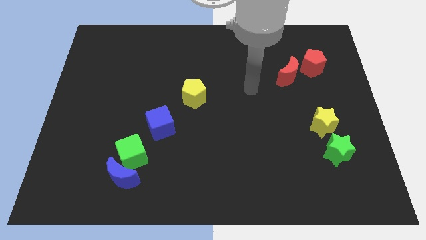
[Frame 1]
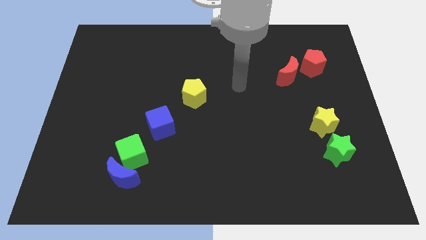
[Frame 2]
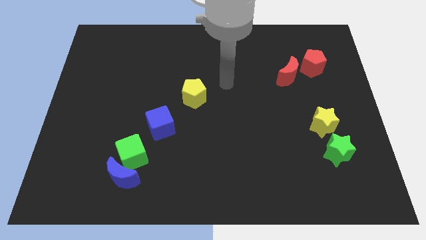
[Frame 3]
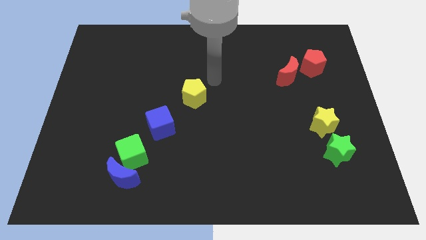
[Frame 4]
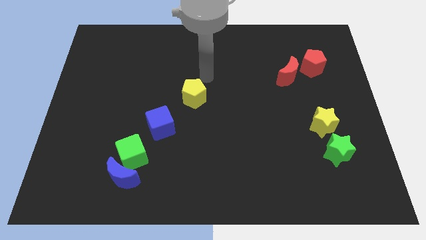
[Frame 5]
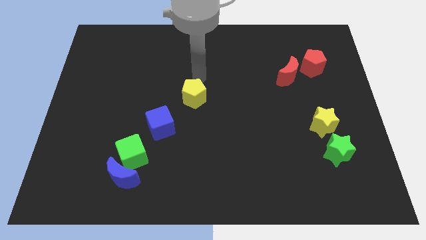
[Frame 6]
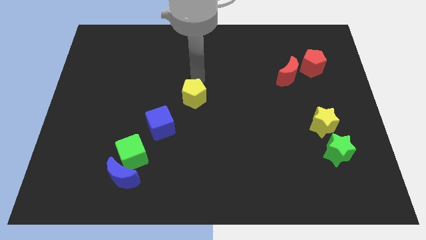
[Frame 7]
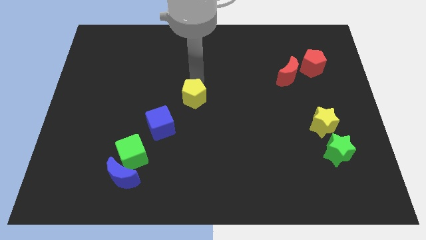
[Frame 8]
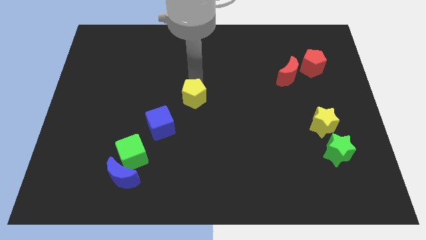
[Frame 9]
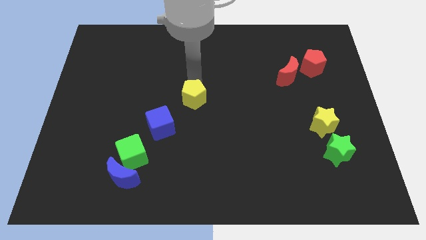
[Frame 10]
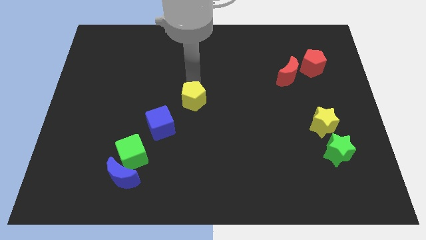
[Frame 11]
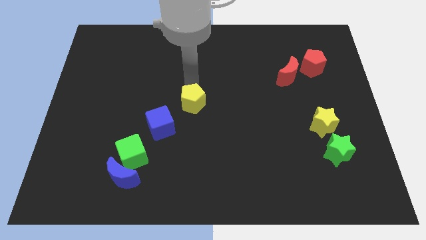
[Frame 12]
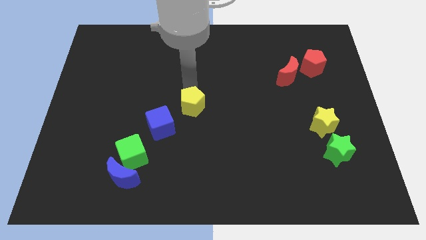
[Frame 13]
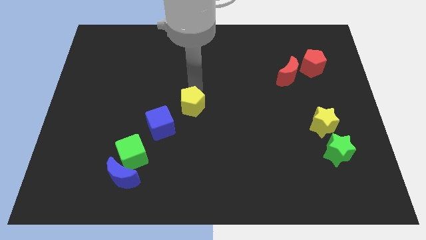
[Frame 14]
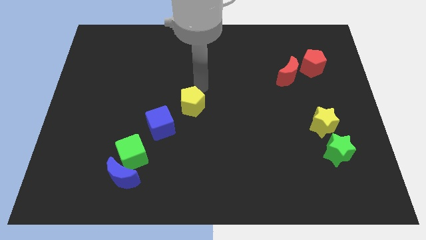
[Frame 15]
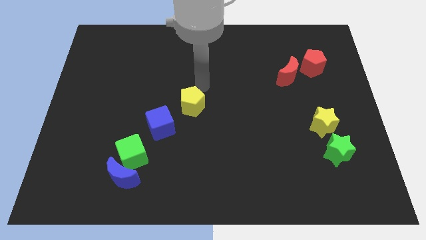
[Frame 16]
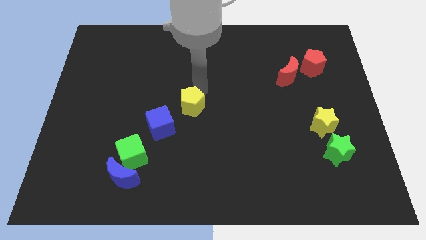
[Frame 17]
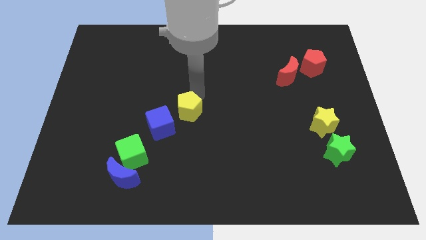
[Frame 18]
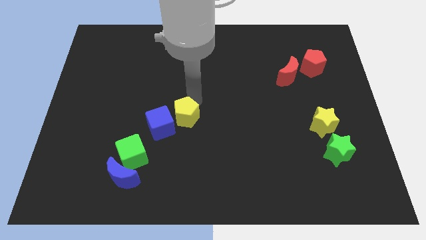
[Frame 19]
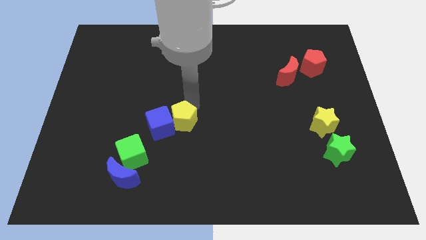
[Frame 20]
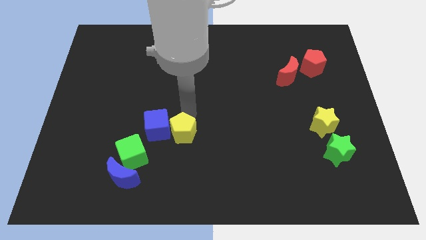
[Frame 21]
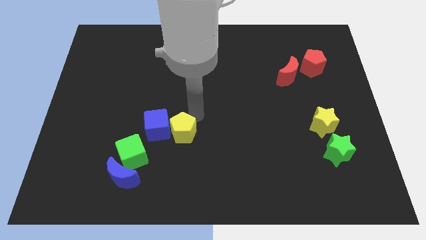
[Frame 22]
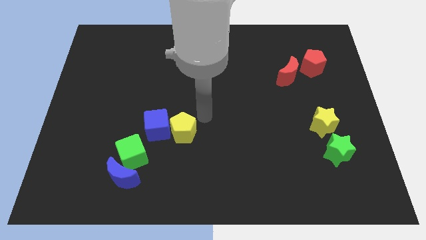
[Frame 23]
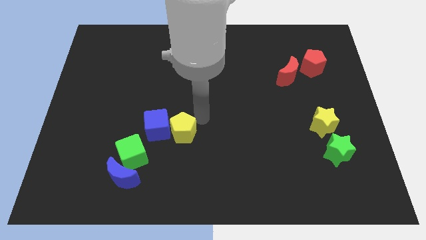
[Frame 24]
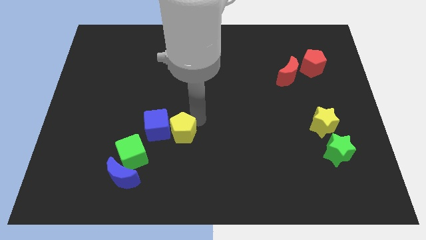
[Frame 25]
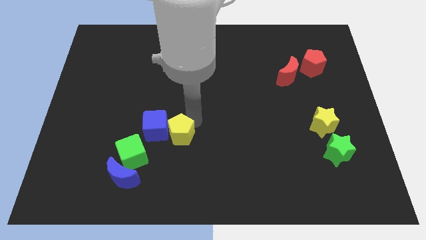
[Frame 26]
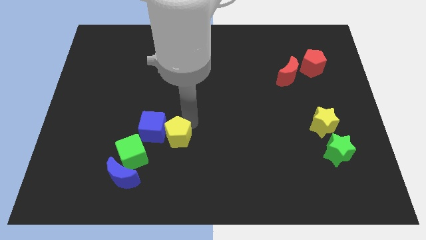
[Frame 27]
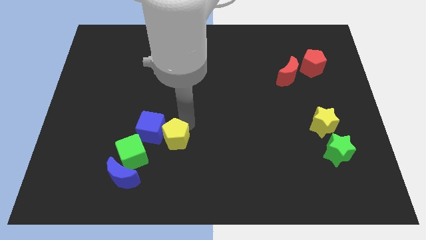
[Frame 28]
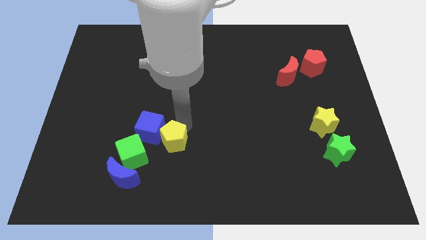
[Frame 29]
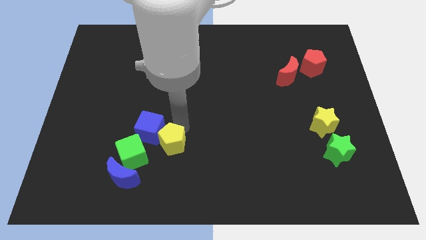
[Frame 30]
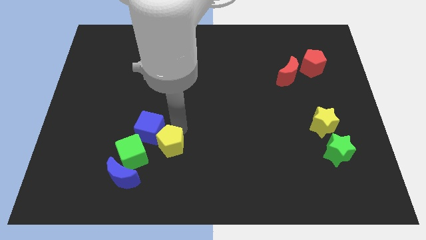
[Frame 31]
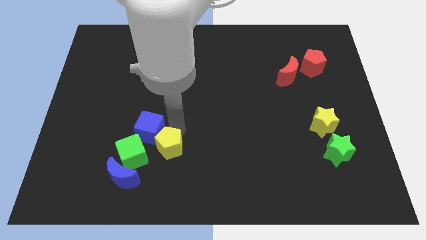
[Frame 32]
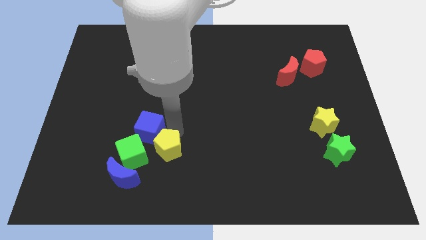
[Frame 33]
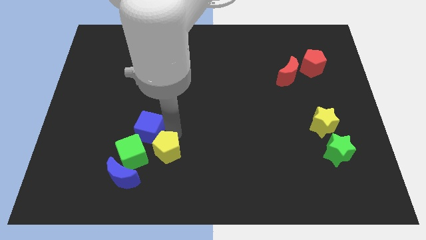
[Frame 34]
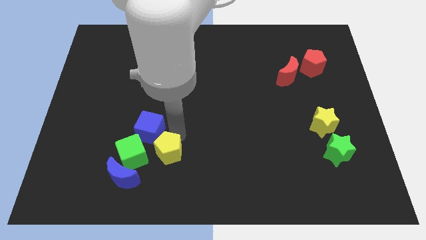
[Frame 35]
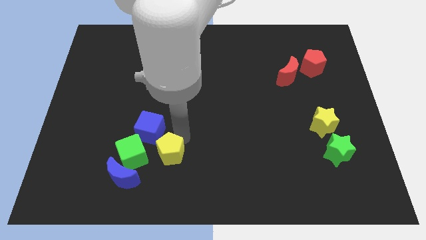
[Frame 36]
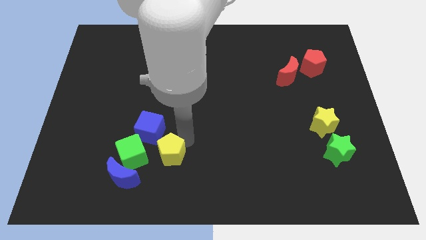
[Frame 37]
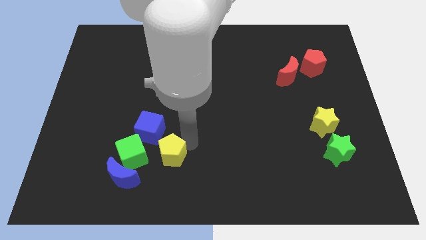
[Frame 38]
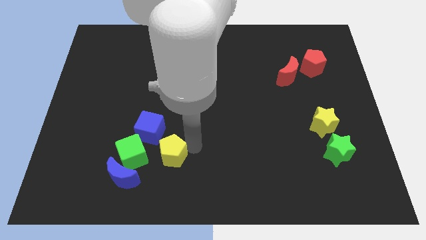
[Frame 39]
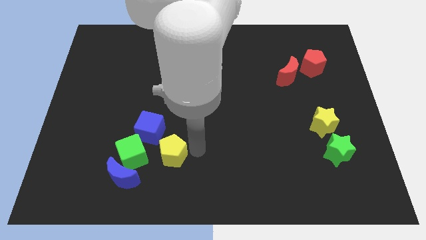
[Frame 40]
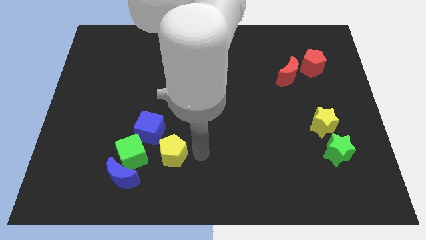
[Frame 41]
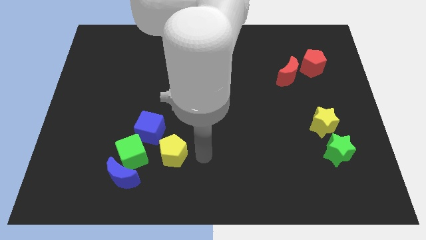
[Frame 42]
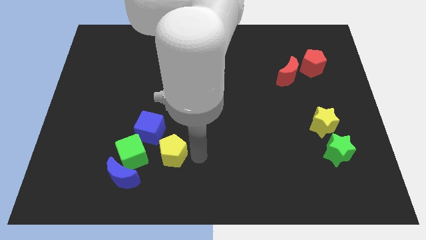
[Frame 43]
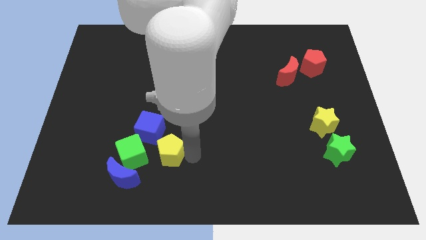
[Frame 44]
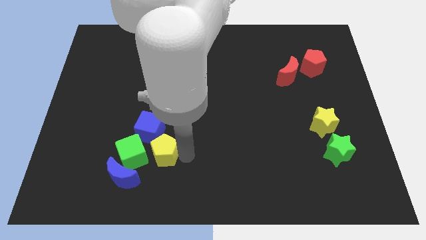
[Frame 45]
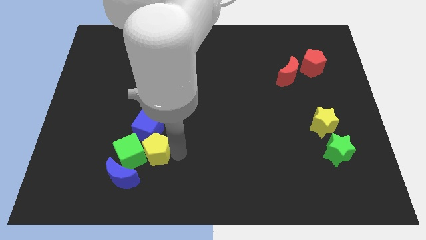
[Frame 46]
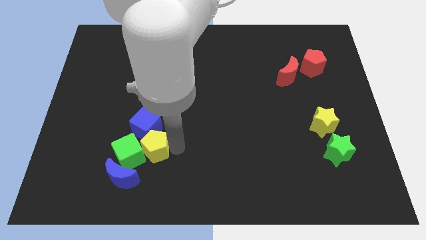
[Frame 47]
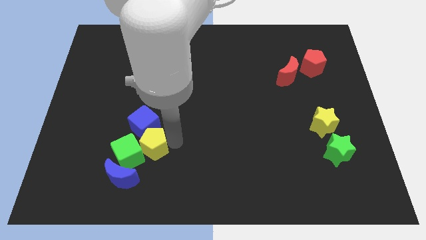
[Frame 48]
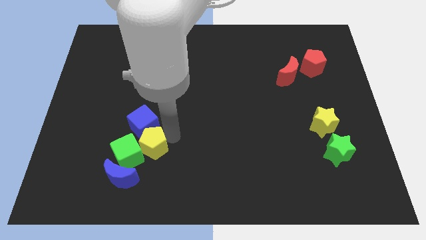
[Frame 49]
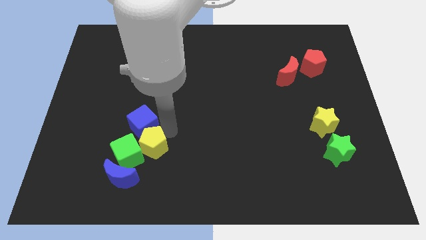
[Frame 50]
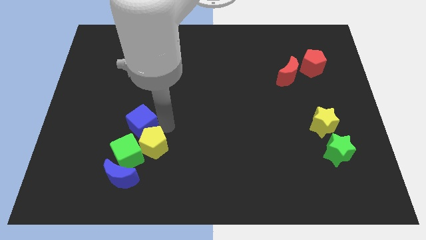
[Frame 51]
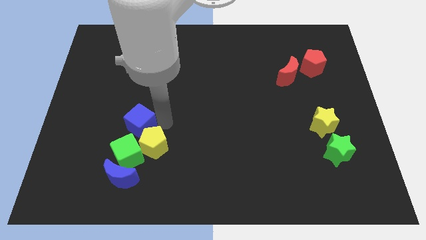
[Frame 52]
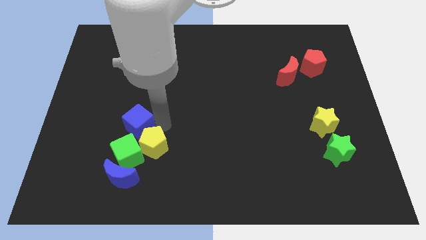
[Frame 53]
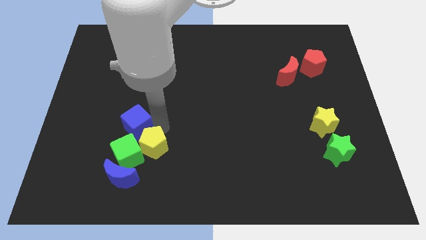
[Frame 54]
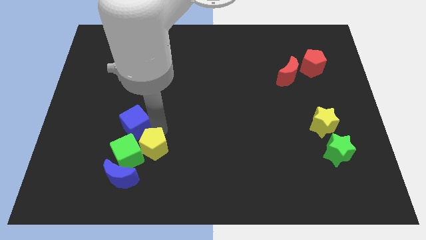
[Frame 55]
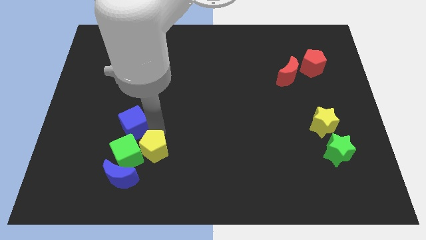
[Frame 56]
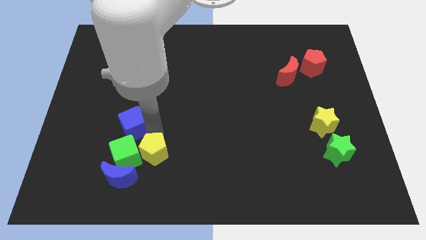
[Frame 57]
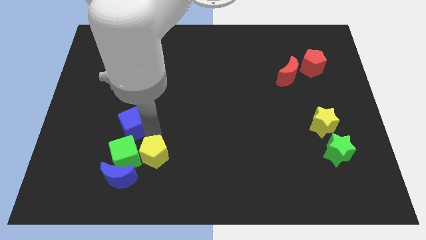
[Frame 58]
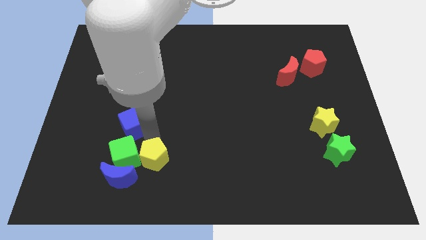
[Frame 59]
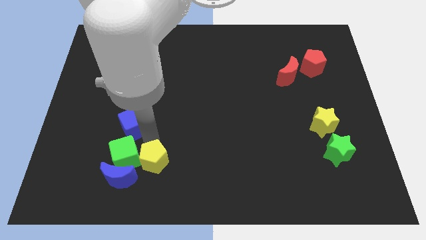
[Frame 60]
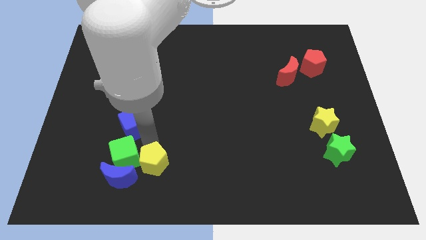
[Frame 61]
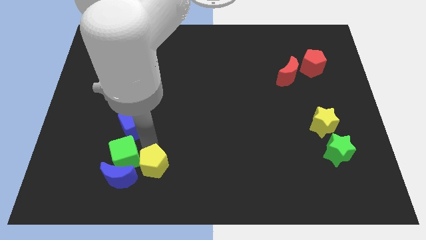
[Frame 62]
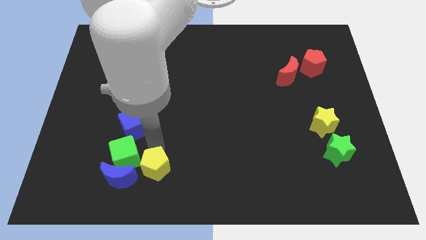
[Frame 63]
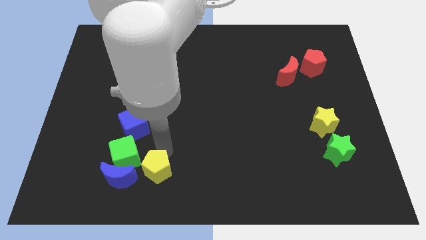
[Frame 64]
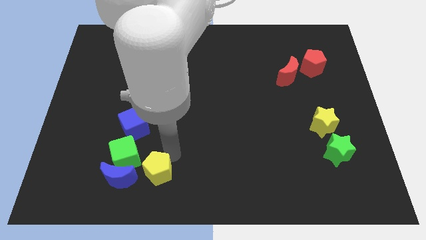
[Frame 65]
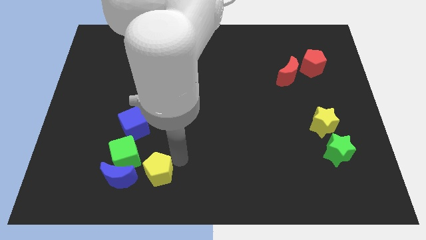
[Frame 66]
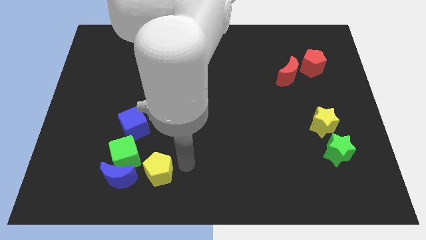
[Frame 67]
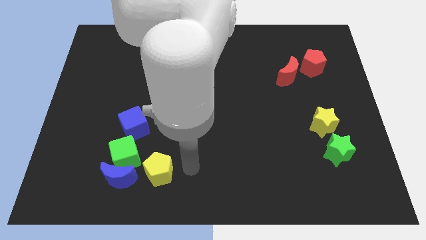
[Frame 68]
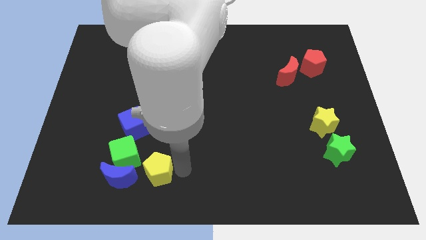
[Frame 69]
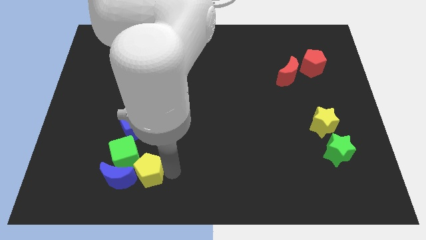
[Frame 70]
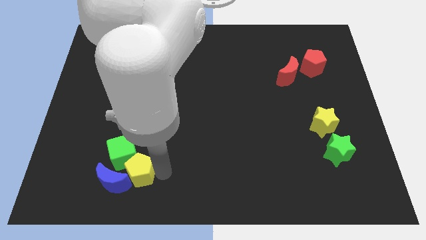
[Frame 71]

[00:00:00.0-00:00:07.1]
put the yellow pentagon to the blue moon

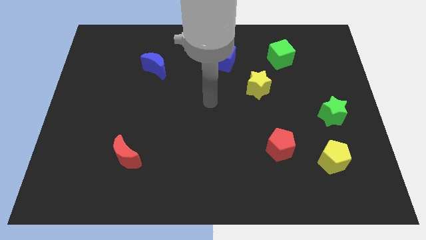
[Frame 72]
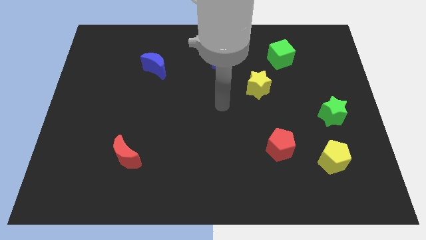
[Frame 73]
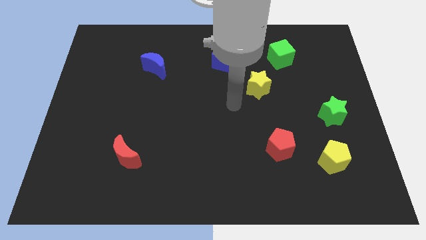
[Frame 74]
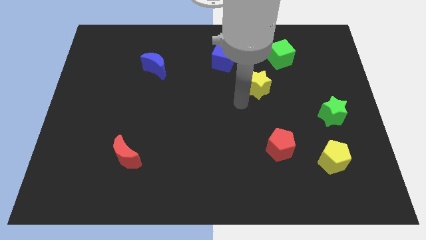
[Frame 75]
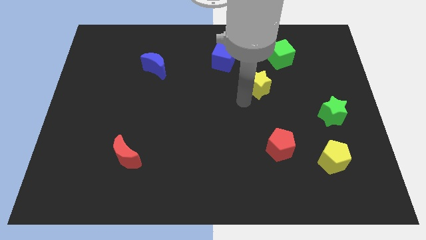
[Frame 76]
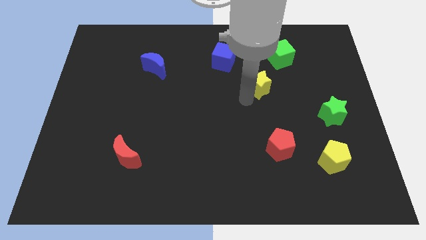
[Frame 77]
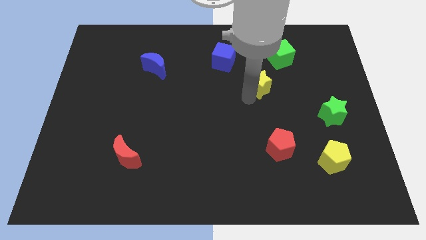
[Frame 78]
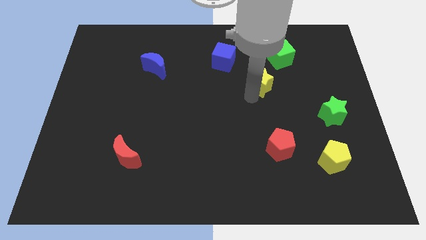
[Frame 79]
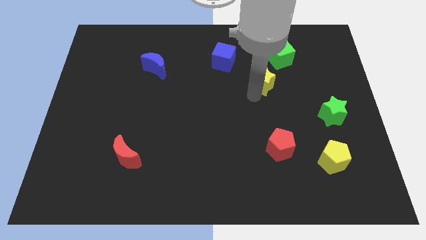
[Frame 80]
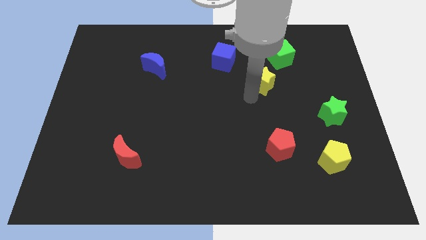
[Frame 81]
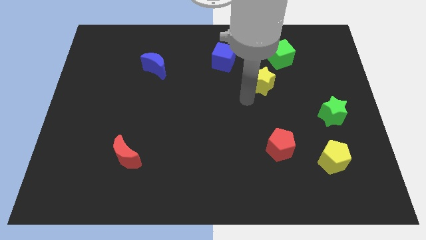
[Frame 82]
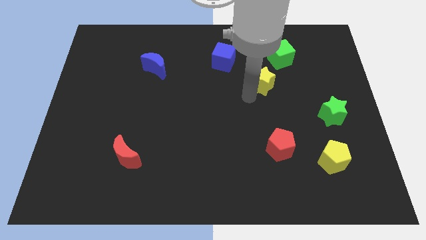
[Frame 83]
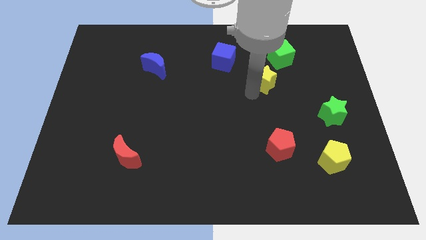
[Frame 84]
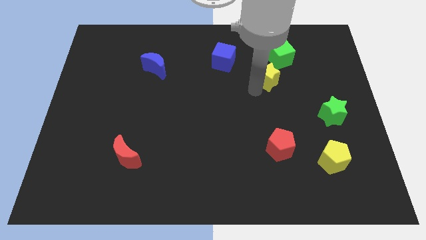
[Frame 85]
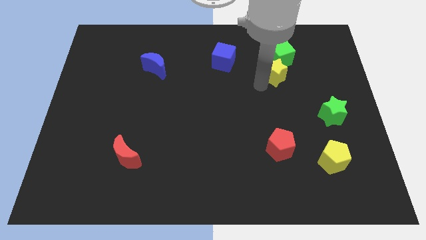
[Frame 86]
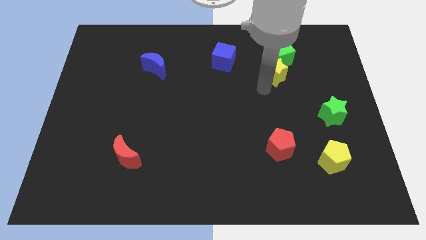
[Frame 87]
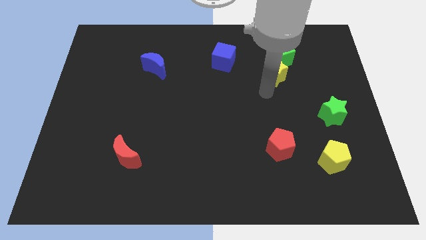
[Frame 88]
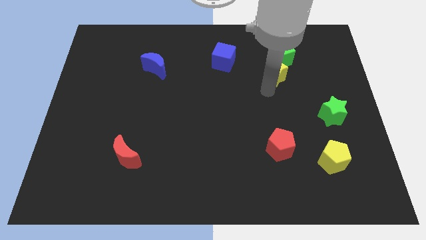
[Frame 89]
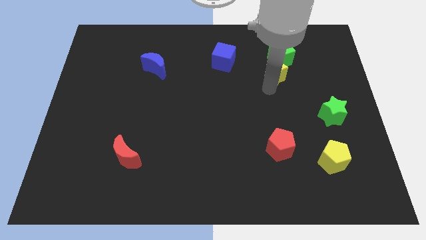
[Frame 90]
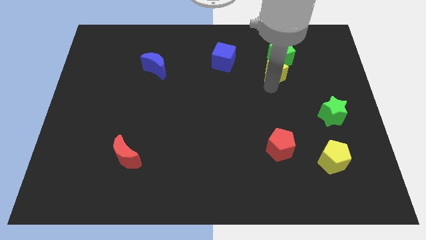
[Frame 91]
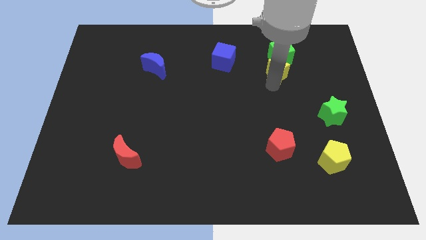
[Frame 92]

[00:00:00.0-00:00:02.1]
move the yellow star towards the green cube
